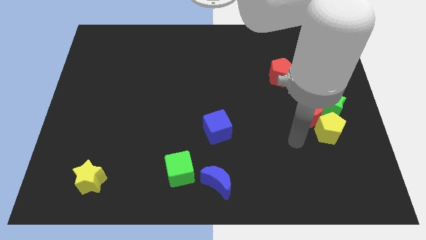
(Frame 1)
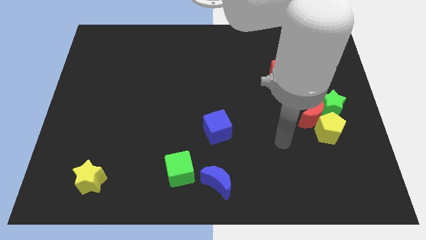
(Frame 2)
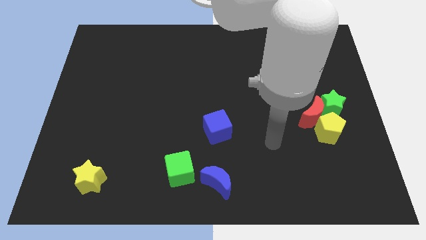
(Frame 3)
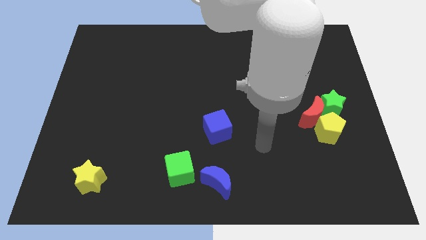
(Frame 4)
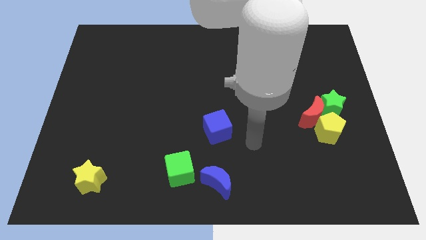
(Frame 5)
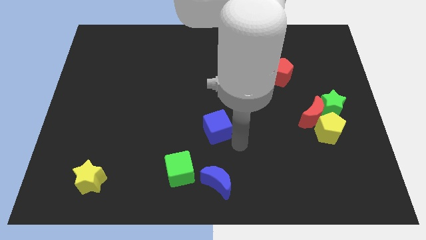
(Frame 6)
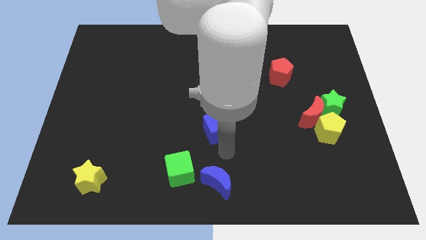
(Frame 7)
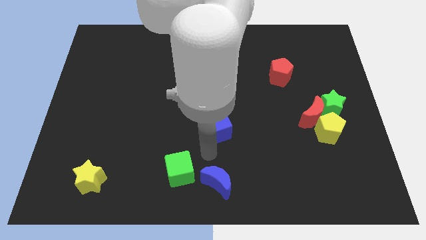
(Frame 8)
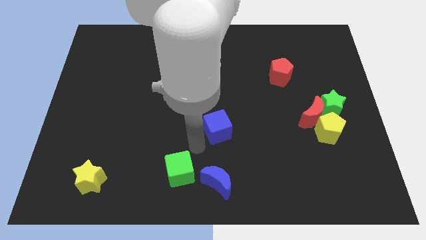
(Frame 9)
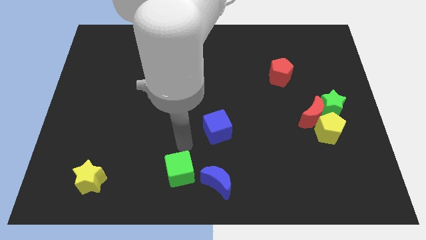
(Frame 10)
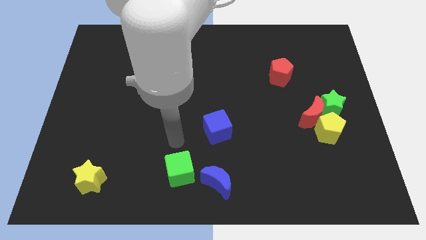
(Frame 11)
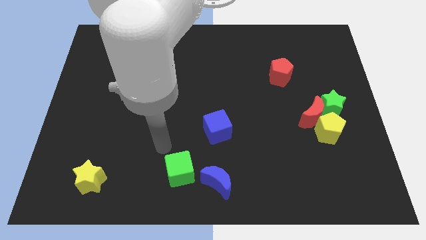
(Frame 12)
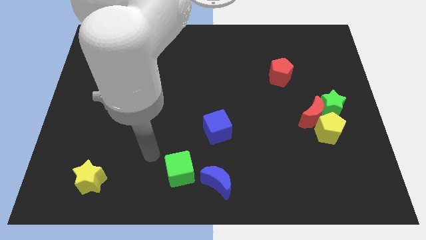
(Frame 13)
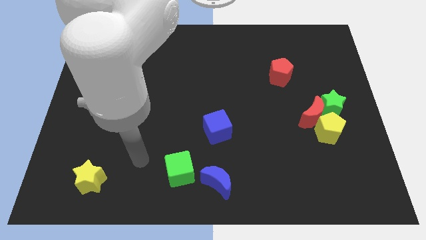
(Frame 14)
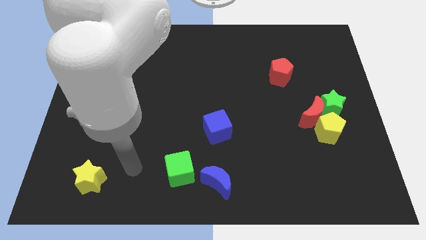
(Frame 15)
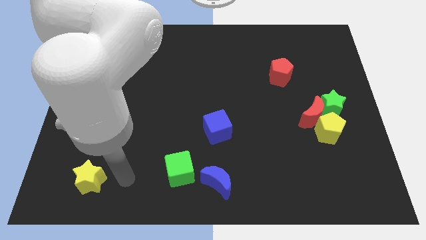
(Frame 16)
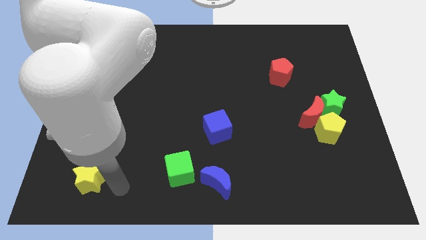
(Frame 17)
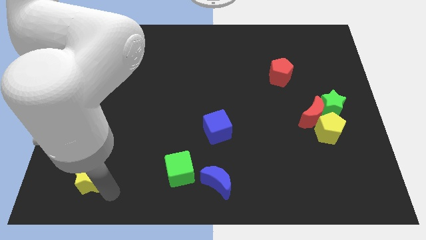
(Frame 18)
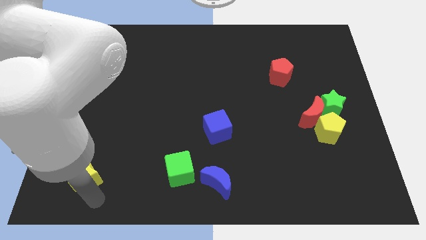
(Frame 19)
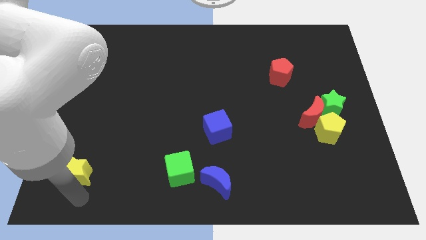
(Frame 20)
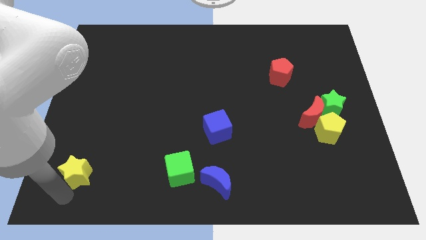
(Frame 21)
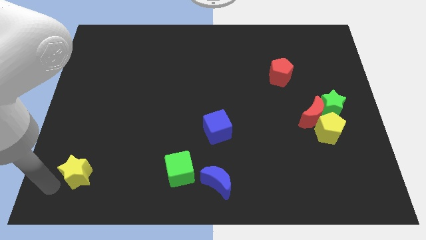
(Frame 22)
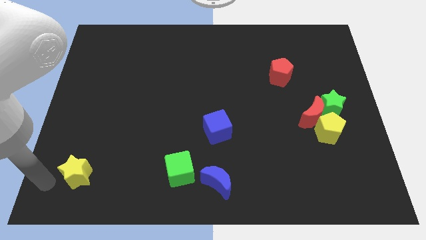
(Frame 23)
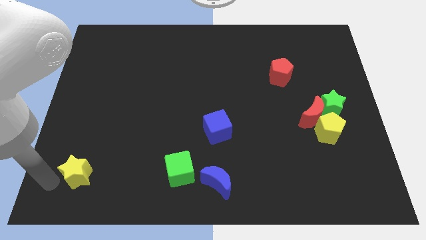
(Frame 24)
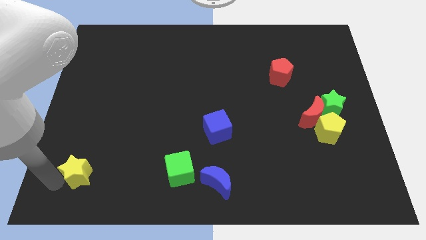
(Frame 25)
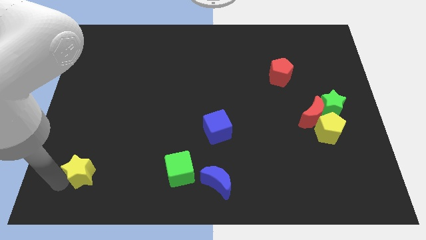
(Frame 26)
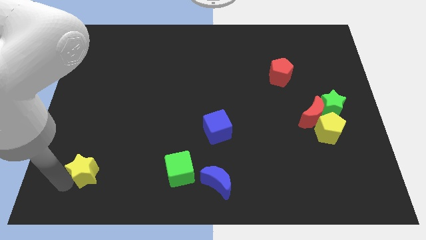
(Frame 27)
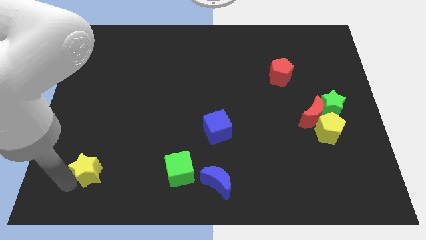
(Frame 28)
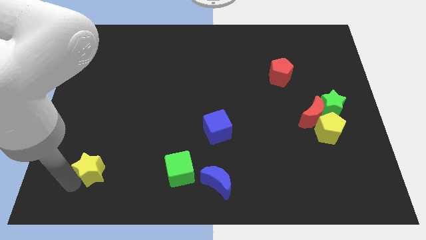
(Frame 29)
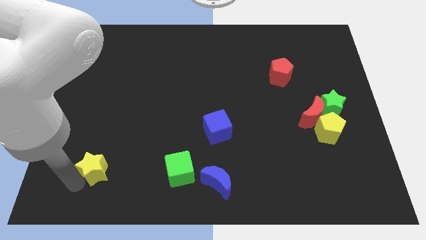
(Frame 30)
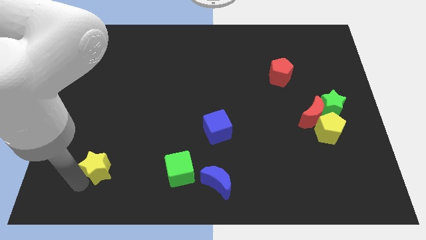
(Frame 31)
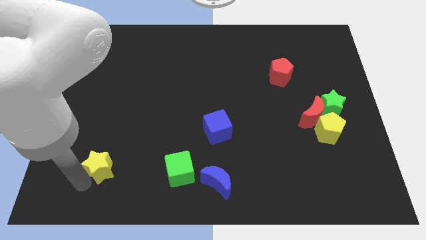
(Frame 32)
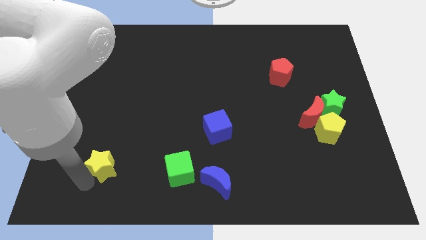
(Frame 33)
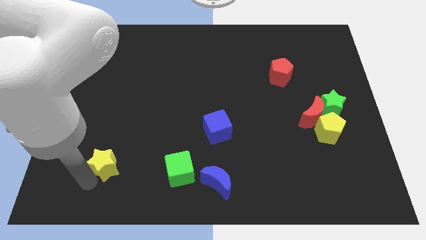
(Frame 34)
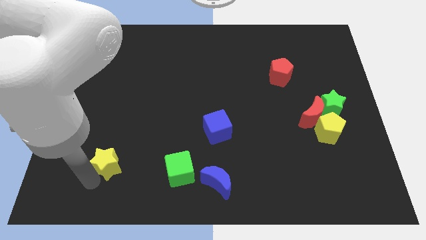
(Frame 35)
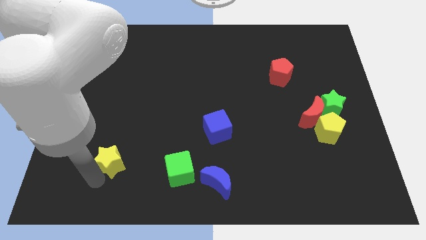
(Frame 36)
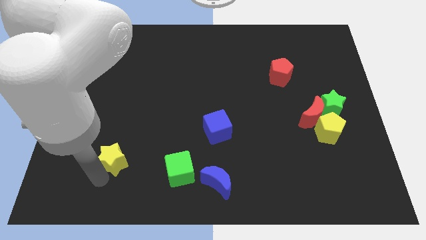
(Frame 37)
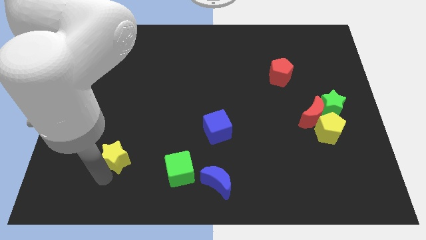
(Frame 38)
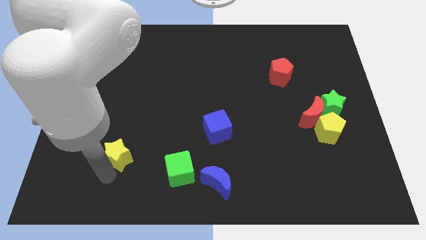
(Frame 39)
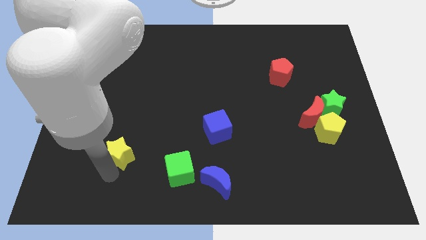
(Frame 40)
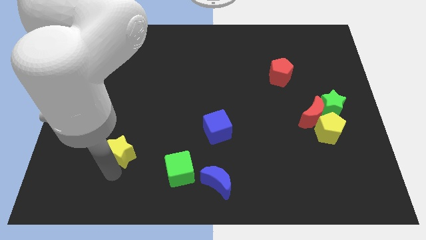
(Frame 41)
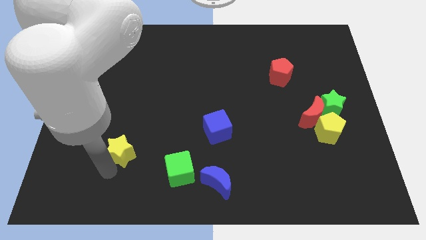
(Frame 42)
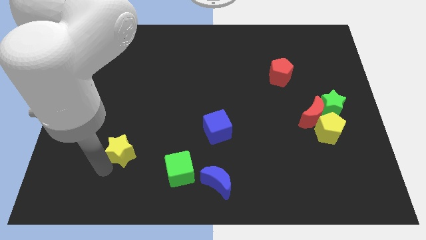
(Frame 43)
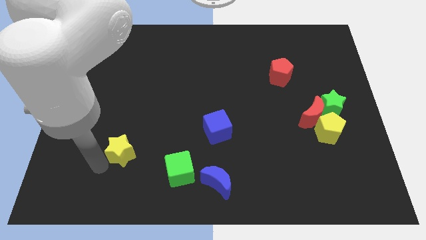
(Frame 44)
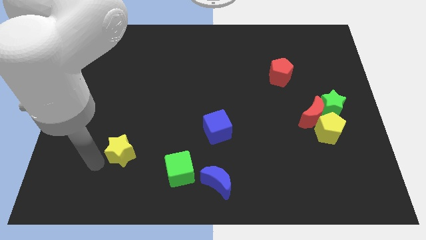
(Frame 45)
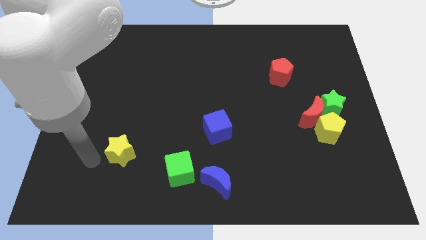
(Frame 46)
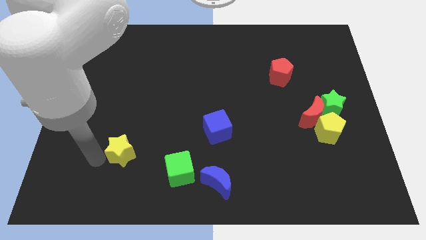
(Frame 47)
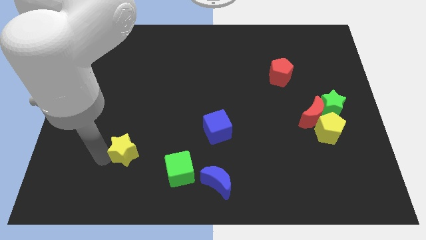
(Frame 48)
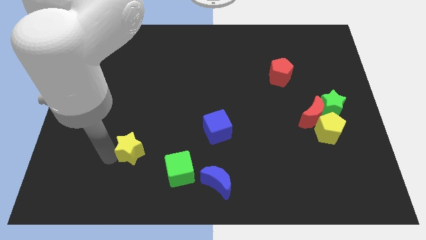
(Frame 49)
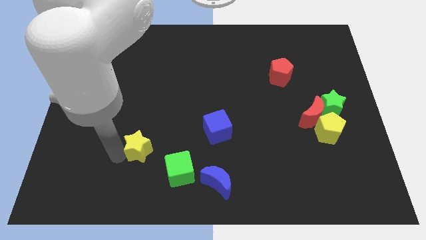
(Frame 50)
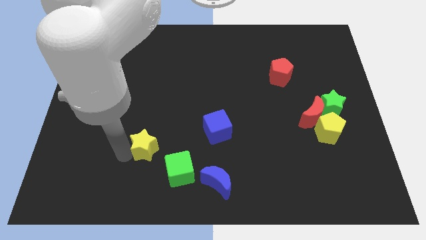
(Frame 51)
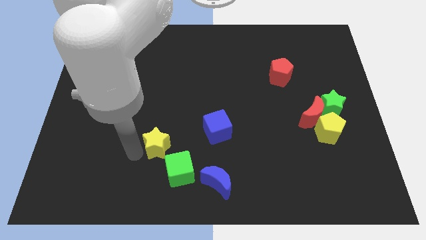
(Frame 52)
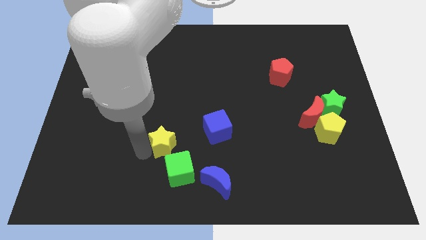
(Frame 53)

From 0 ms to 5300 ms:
slide the yellow star above the green cube

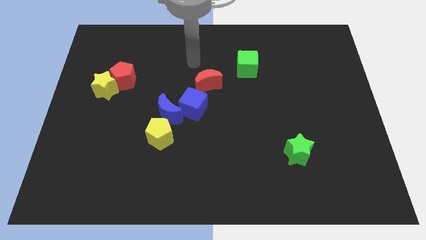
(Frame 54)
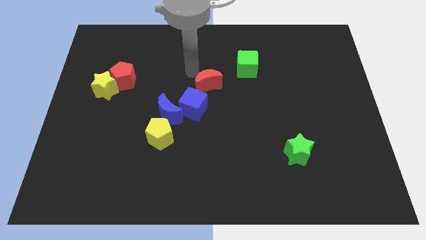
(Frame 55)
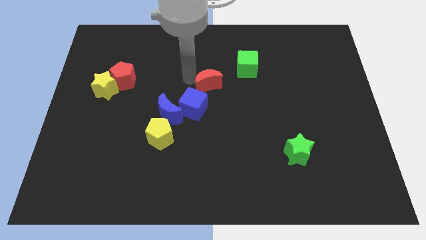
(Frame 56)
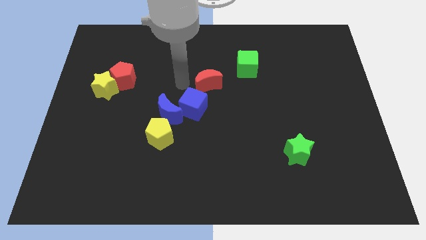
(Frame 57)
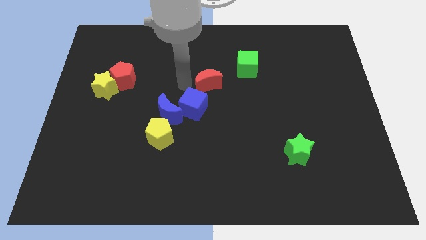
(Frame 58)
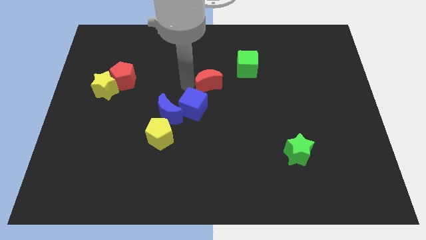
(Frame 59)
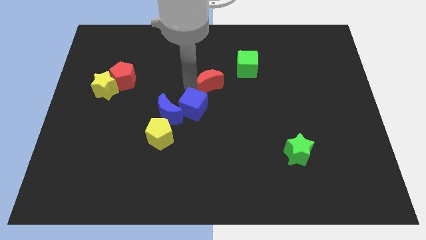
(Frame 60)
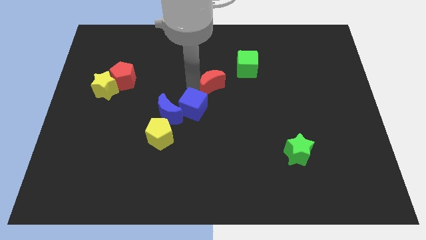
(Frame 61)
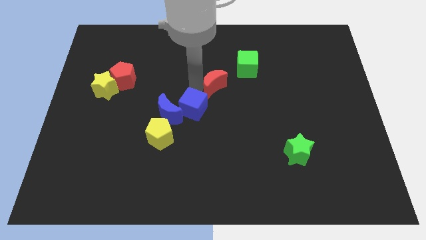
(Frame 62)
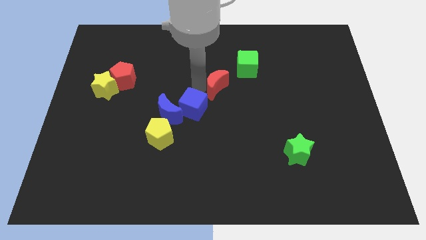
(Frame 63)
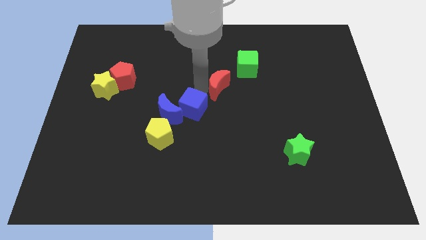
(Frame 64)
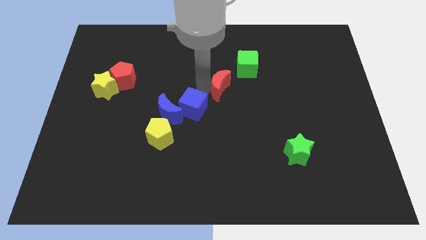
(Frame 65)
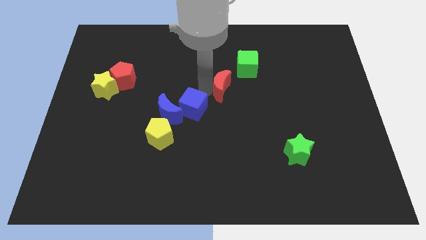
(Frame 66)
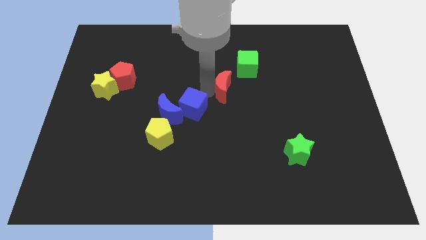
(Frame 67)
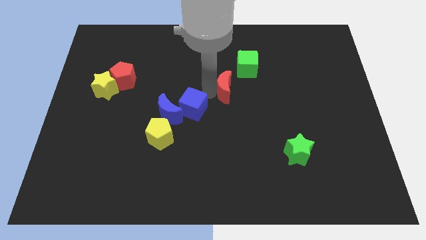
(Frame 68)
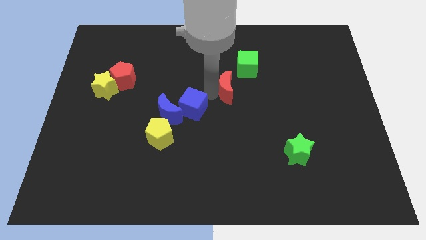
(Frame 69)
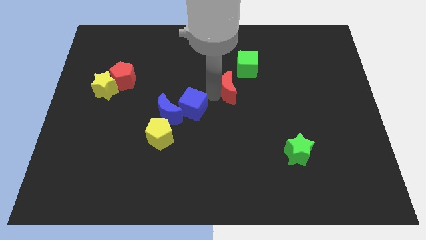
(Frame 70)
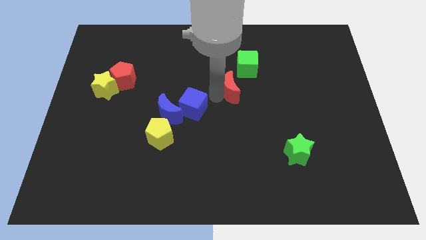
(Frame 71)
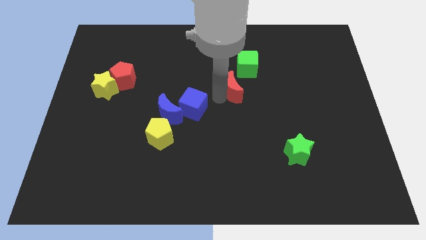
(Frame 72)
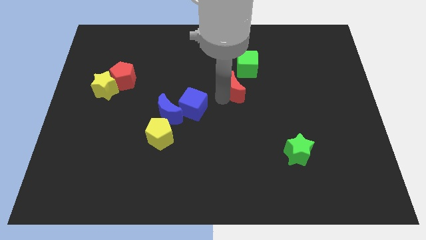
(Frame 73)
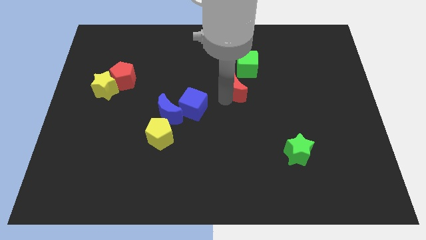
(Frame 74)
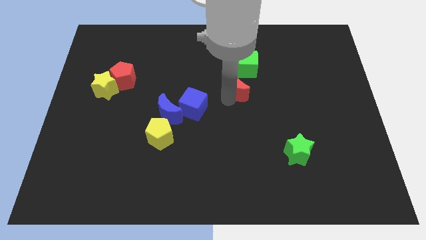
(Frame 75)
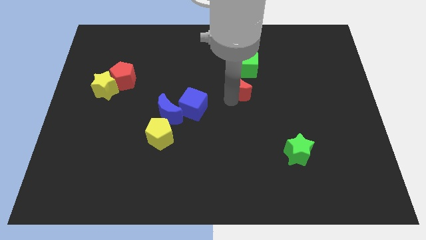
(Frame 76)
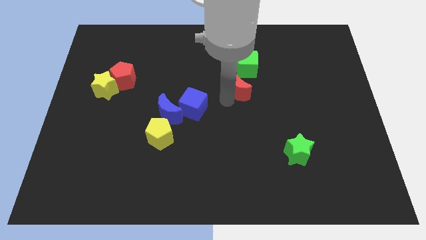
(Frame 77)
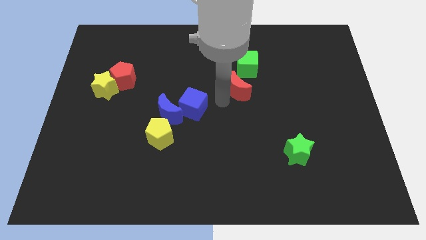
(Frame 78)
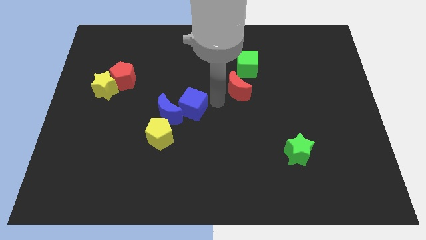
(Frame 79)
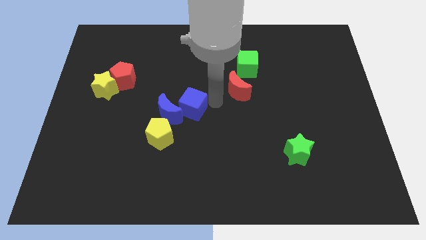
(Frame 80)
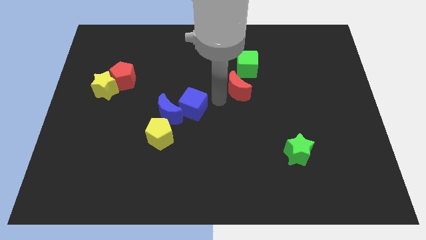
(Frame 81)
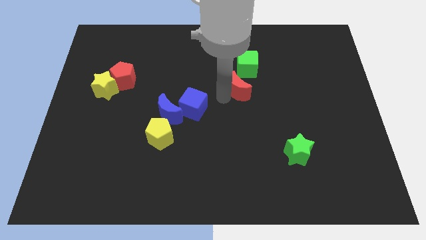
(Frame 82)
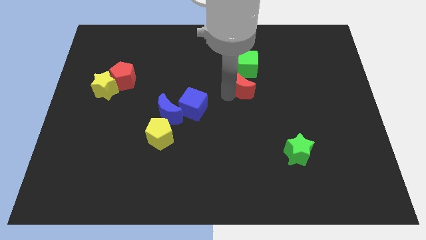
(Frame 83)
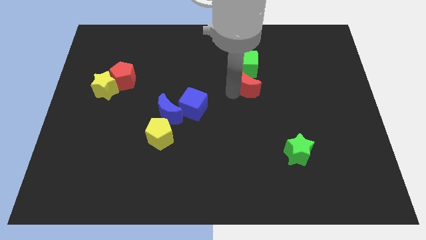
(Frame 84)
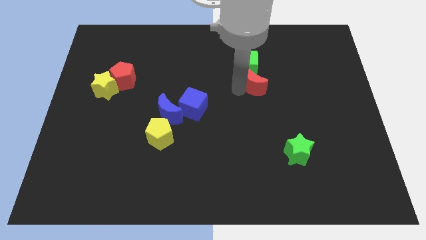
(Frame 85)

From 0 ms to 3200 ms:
slide the red moon to the bottom right of the green cube
